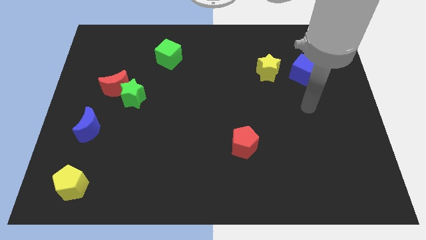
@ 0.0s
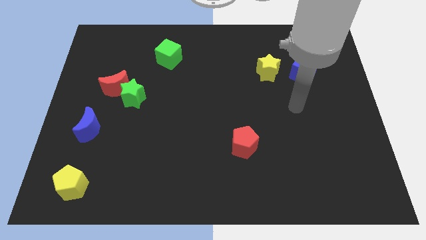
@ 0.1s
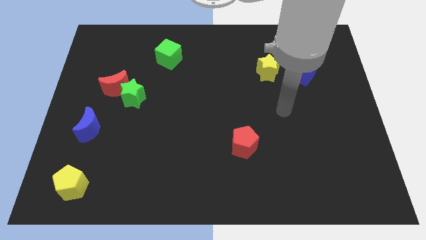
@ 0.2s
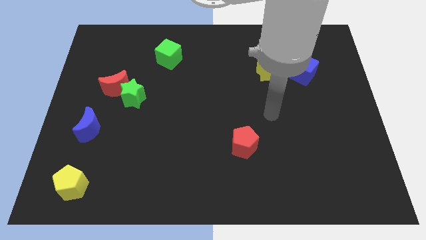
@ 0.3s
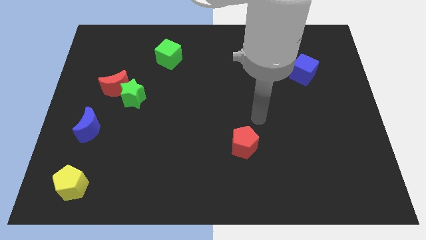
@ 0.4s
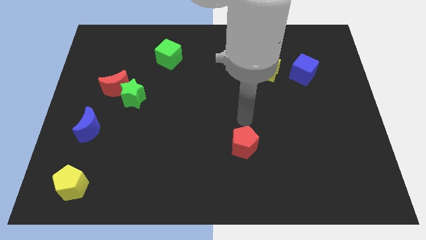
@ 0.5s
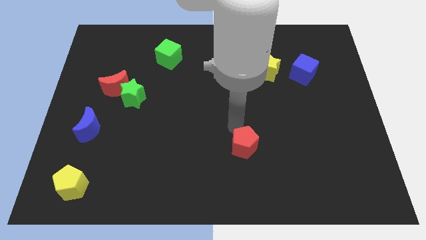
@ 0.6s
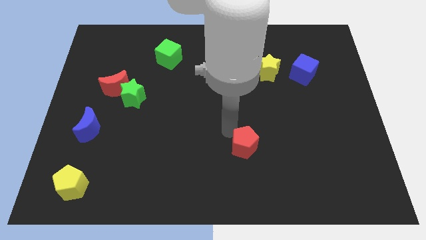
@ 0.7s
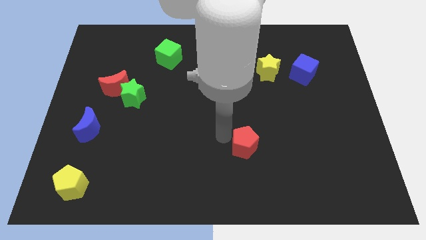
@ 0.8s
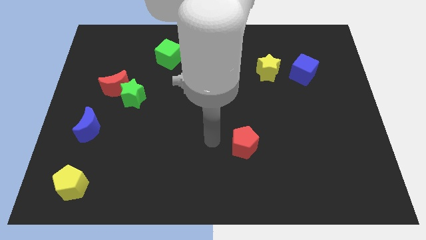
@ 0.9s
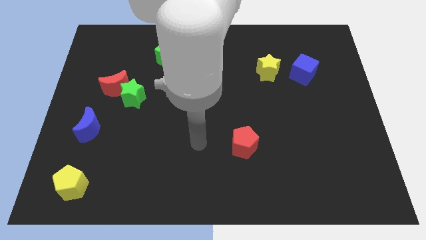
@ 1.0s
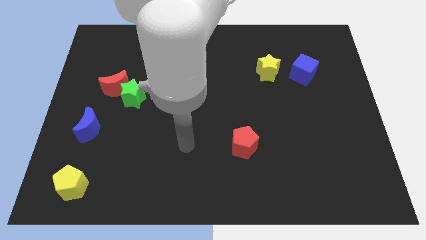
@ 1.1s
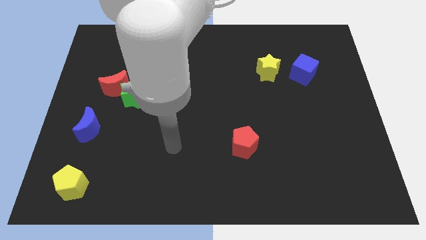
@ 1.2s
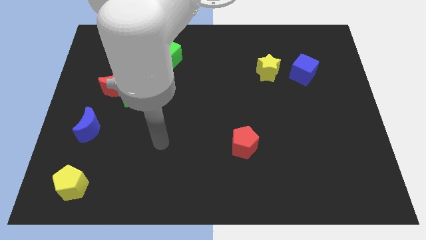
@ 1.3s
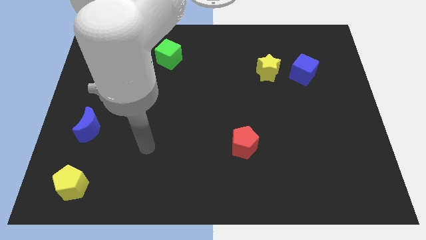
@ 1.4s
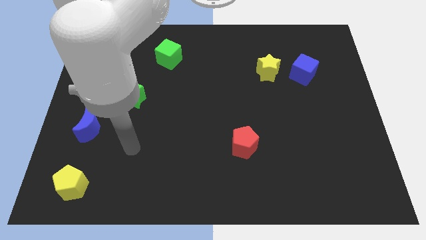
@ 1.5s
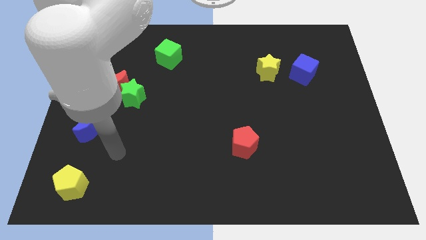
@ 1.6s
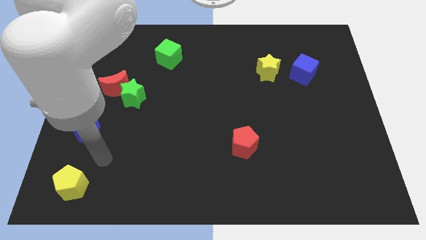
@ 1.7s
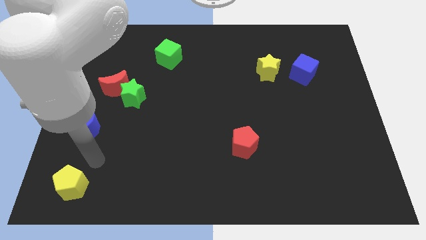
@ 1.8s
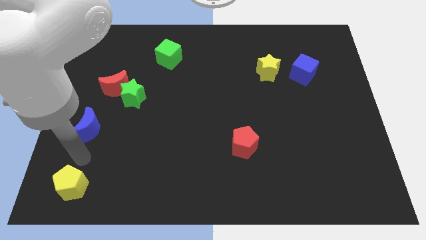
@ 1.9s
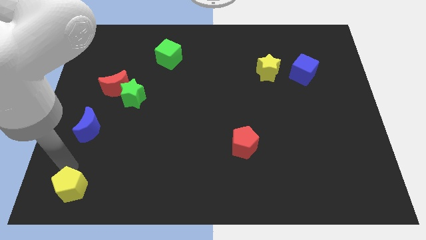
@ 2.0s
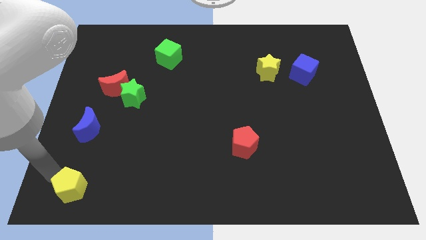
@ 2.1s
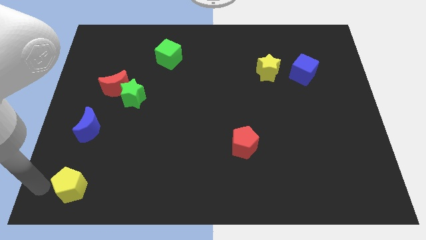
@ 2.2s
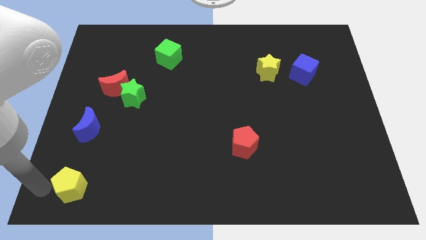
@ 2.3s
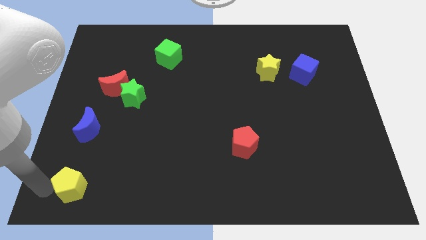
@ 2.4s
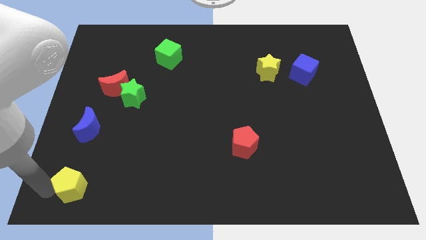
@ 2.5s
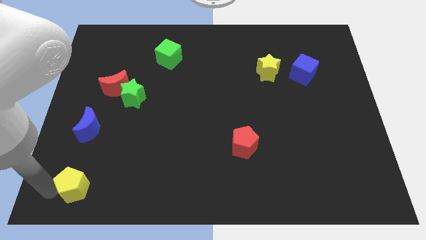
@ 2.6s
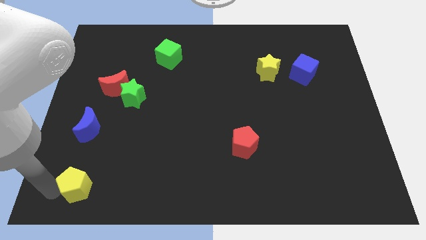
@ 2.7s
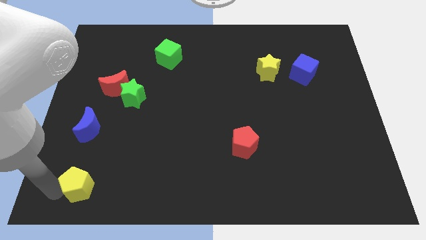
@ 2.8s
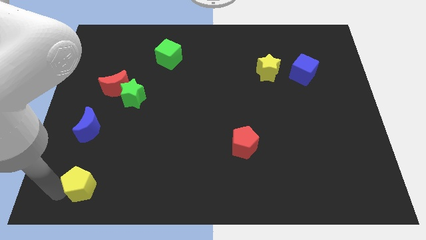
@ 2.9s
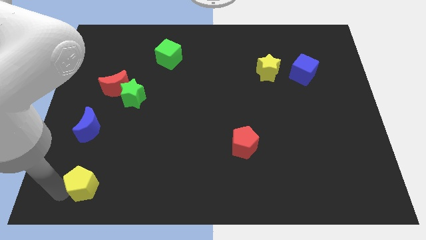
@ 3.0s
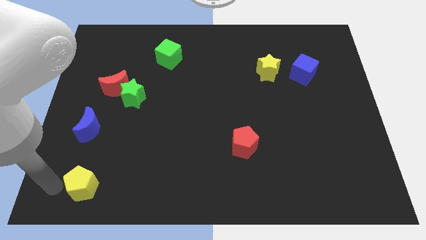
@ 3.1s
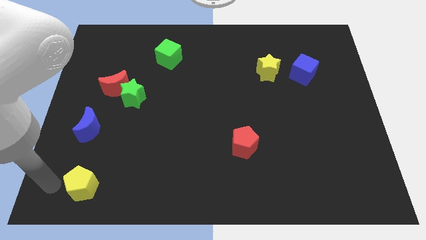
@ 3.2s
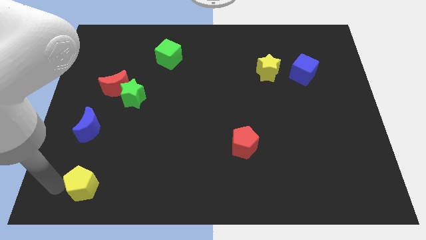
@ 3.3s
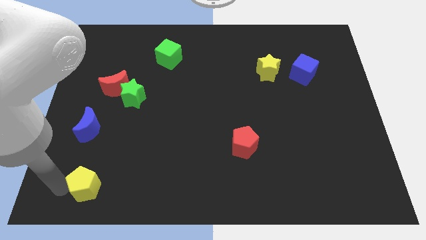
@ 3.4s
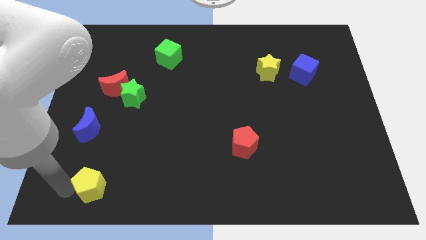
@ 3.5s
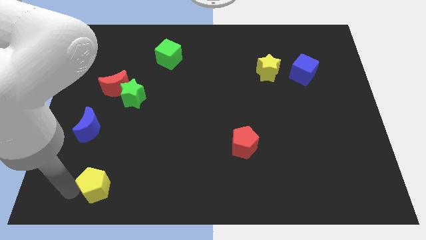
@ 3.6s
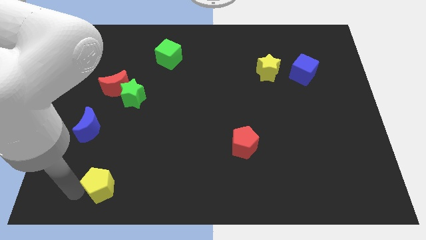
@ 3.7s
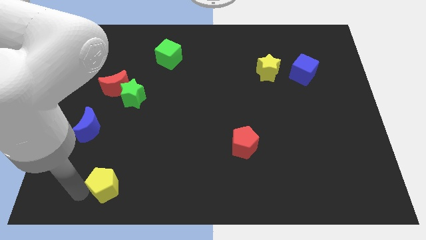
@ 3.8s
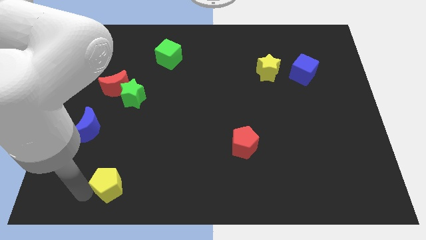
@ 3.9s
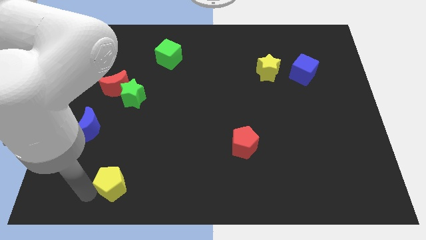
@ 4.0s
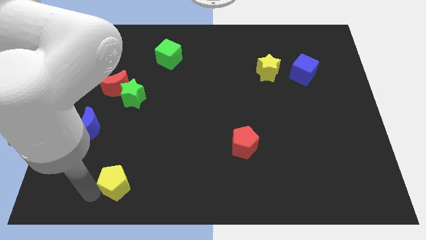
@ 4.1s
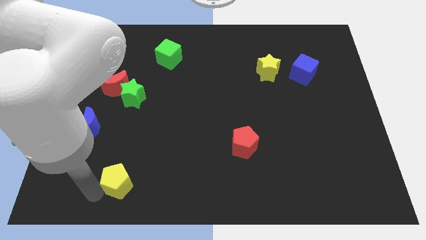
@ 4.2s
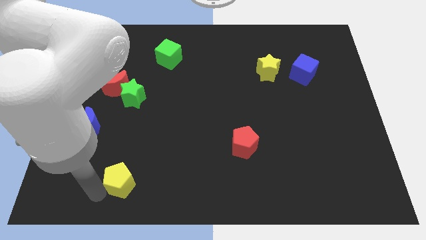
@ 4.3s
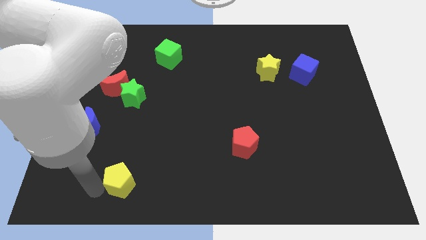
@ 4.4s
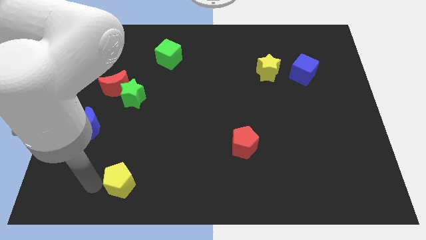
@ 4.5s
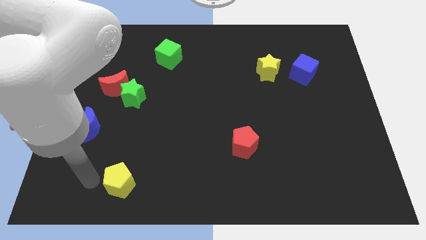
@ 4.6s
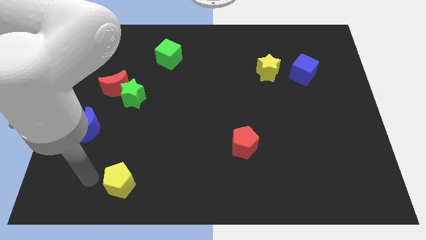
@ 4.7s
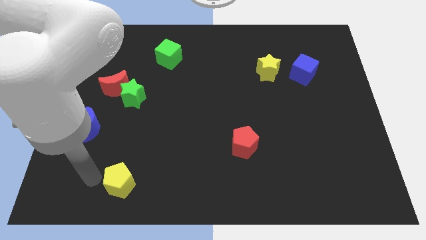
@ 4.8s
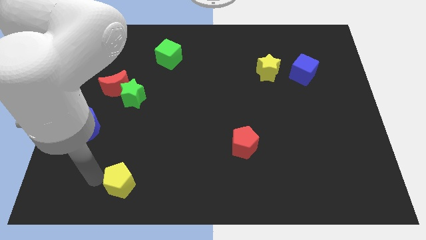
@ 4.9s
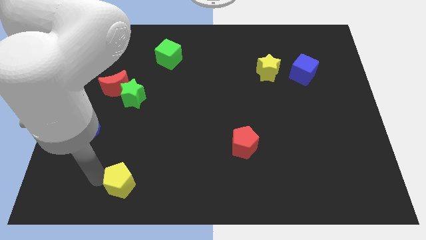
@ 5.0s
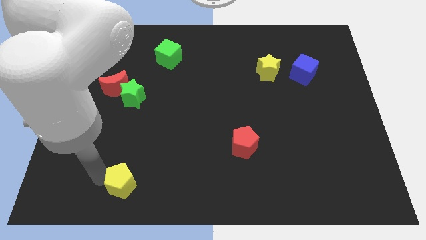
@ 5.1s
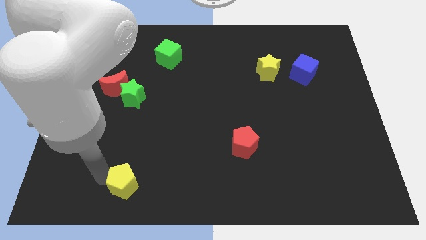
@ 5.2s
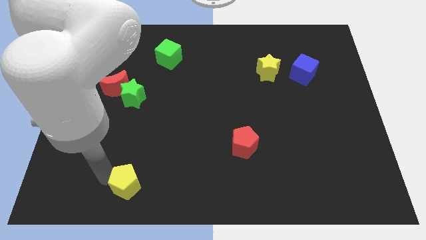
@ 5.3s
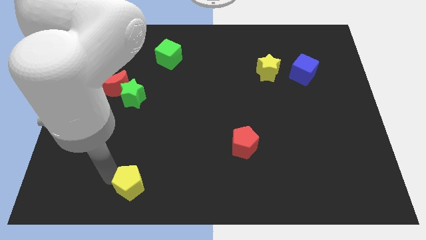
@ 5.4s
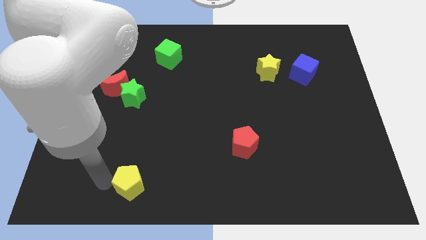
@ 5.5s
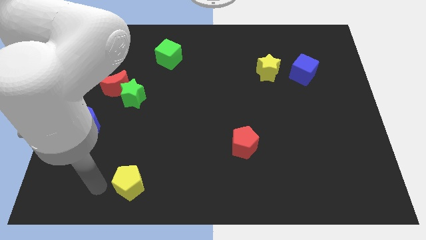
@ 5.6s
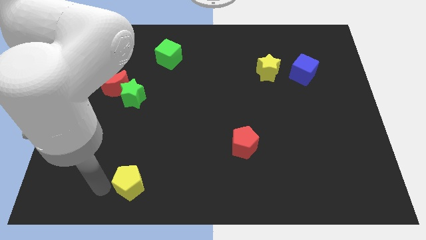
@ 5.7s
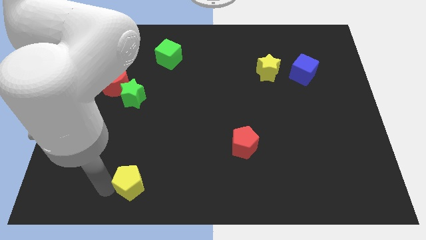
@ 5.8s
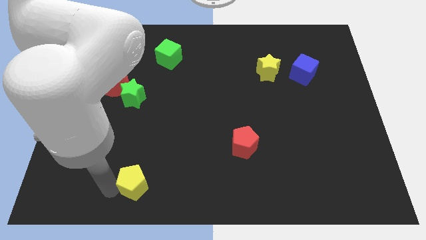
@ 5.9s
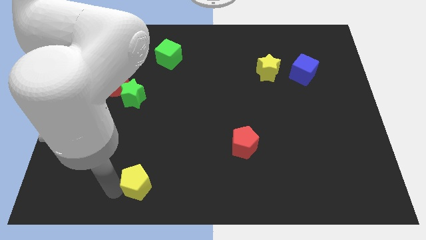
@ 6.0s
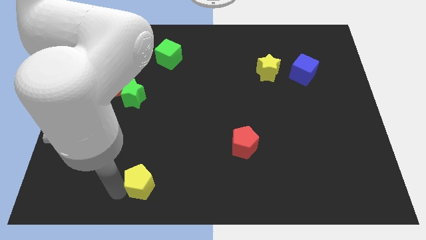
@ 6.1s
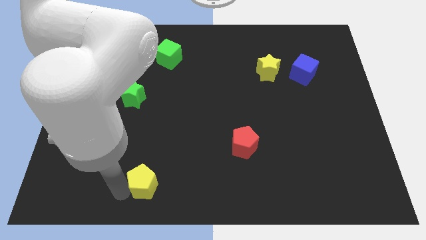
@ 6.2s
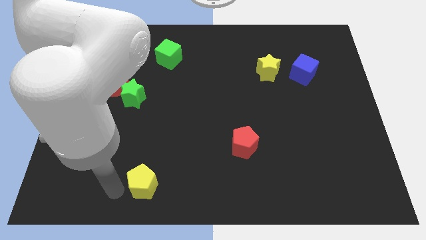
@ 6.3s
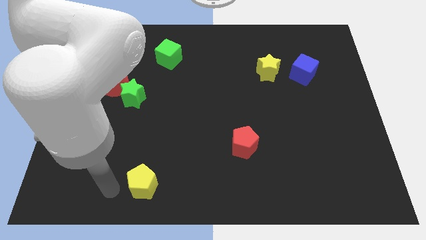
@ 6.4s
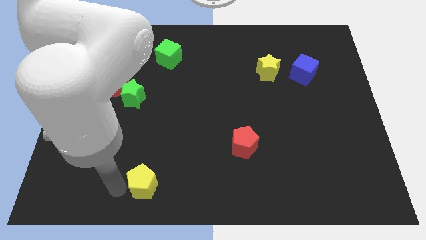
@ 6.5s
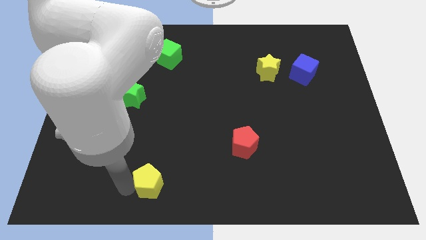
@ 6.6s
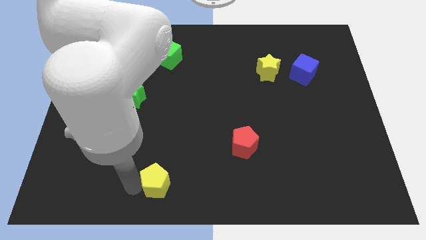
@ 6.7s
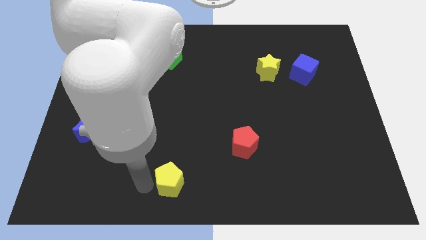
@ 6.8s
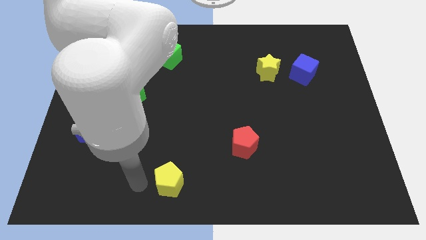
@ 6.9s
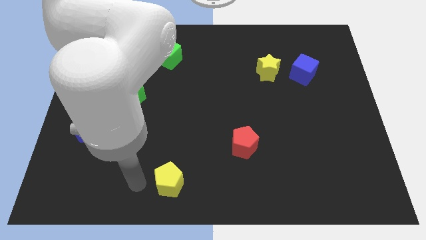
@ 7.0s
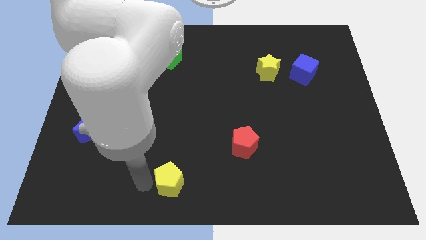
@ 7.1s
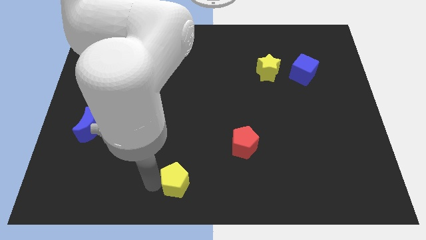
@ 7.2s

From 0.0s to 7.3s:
push the yellow pentagon right

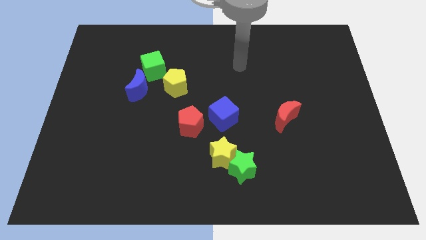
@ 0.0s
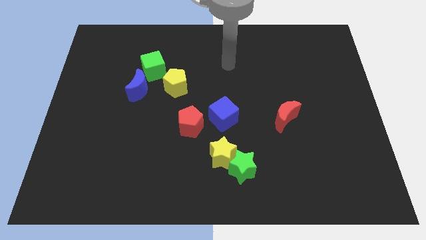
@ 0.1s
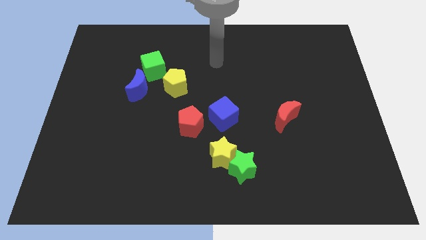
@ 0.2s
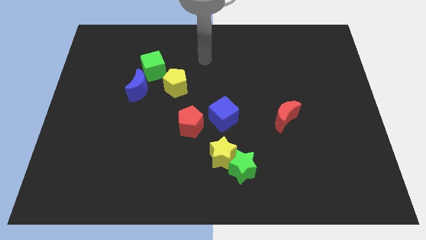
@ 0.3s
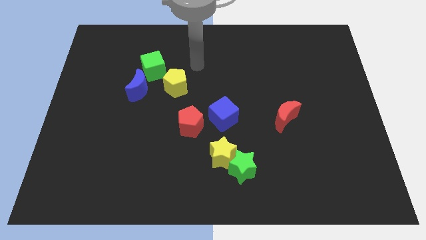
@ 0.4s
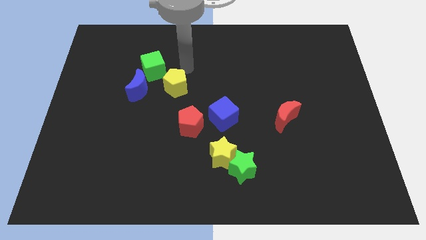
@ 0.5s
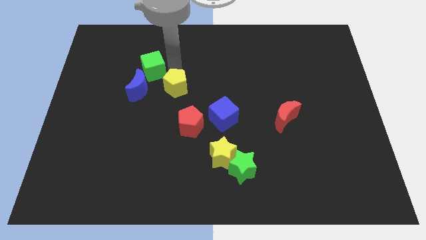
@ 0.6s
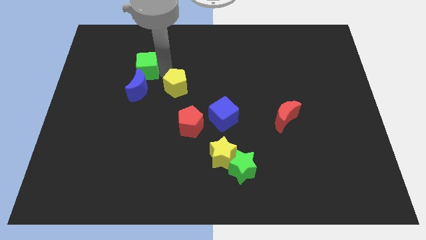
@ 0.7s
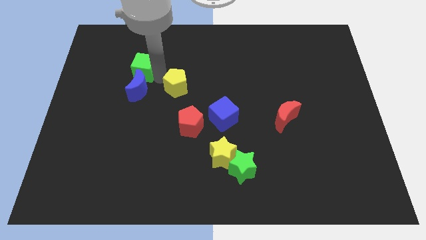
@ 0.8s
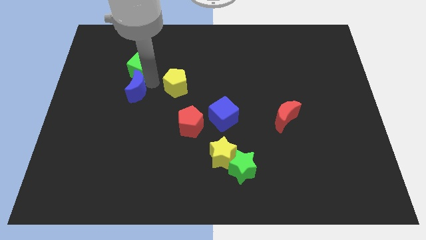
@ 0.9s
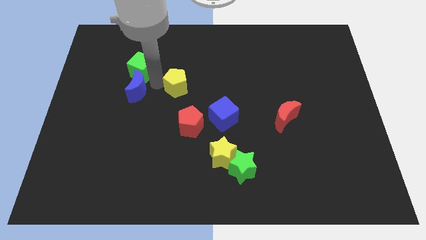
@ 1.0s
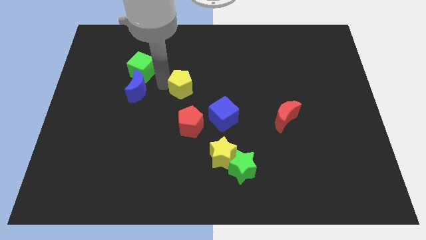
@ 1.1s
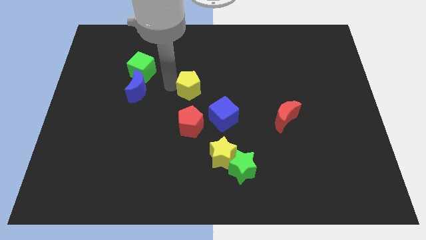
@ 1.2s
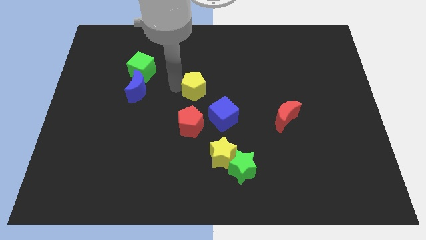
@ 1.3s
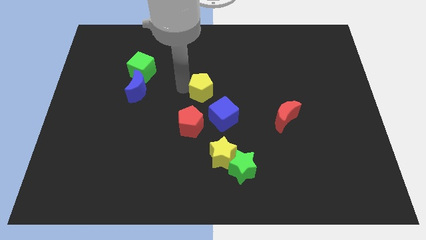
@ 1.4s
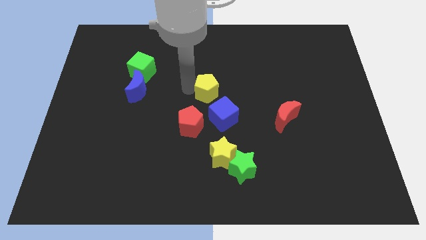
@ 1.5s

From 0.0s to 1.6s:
push the yellow pentagon slightly right
